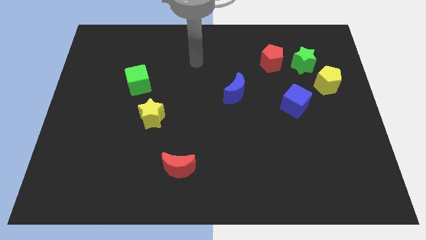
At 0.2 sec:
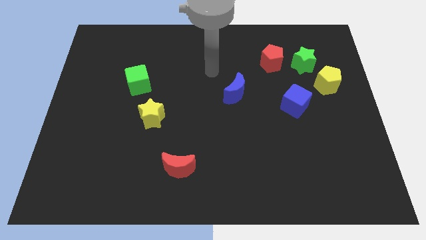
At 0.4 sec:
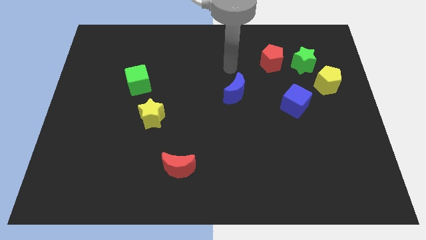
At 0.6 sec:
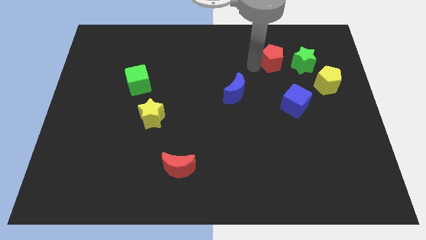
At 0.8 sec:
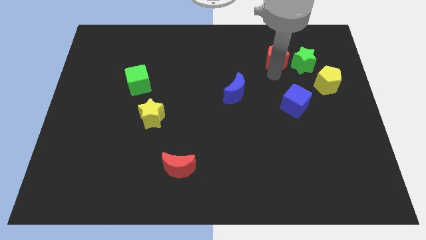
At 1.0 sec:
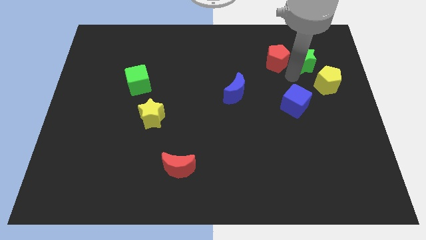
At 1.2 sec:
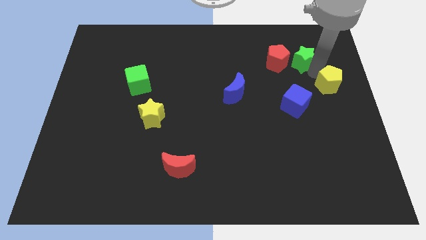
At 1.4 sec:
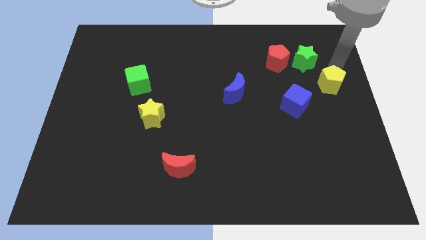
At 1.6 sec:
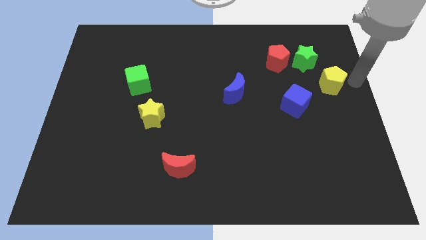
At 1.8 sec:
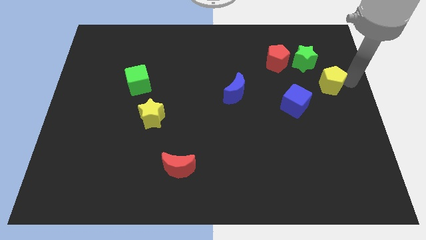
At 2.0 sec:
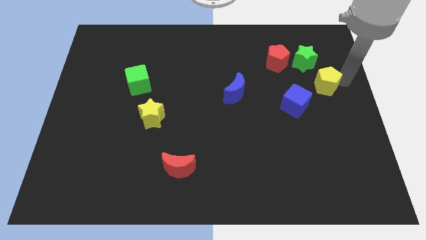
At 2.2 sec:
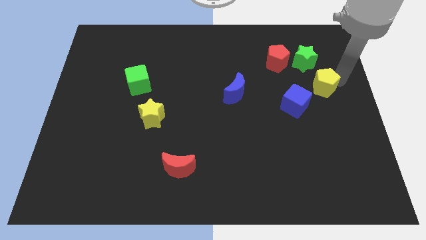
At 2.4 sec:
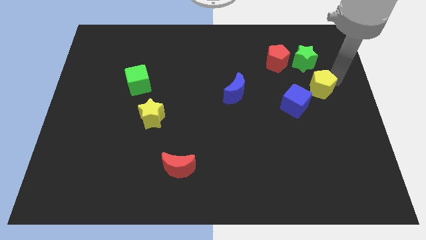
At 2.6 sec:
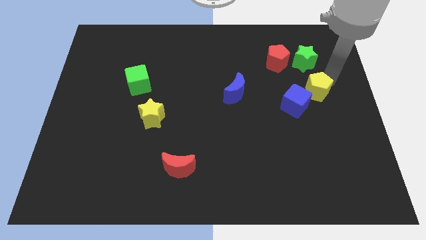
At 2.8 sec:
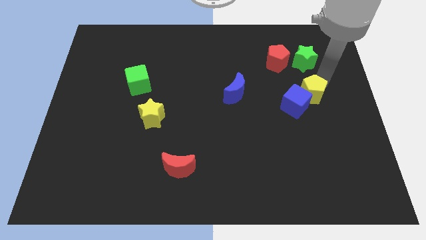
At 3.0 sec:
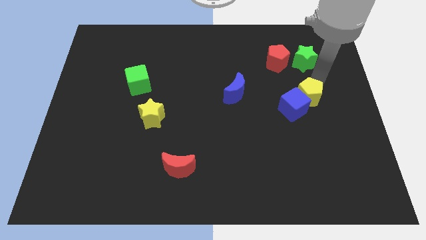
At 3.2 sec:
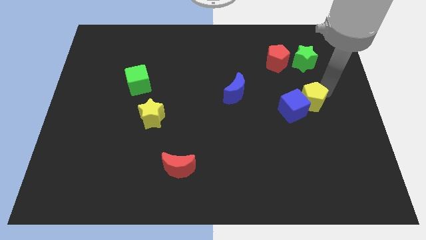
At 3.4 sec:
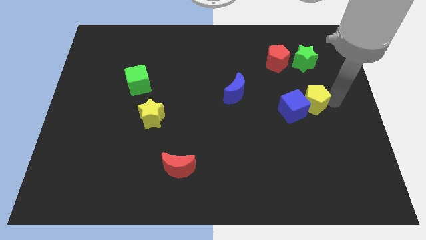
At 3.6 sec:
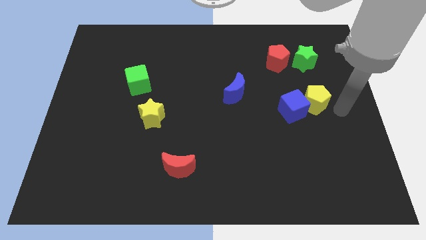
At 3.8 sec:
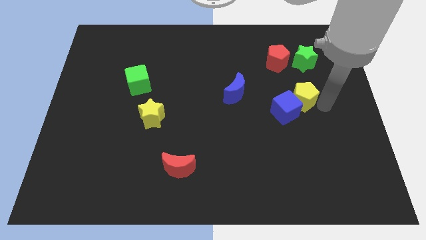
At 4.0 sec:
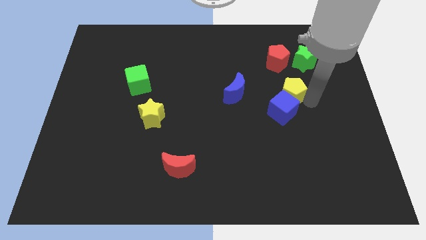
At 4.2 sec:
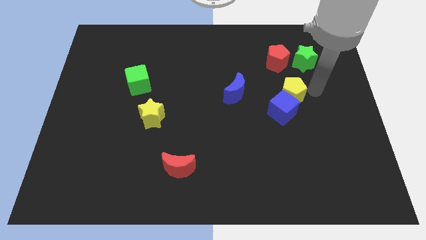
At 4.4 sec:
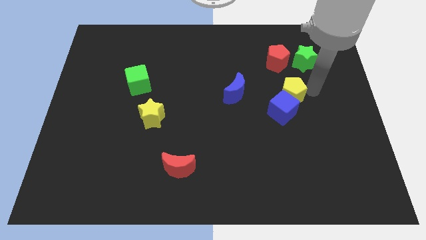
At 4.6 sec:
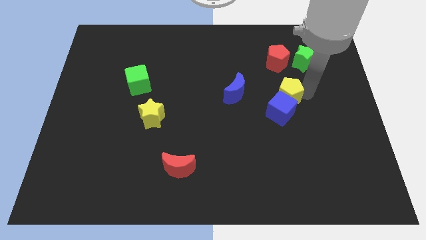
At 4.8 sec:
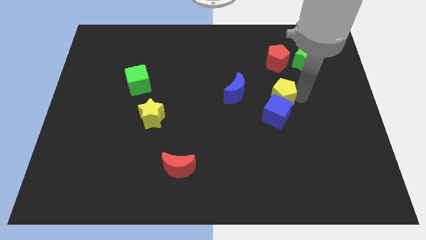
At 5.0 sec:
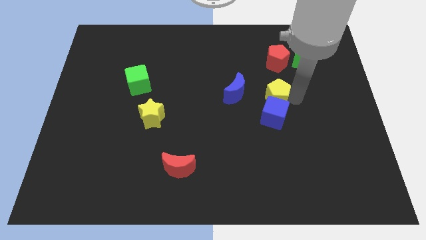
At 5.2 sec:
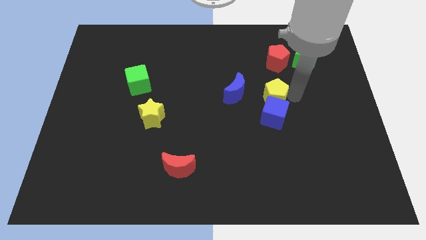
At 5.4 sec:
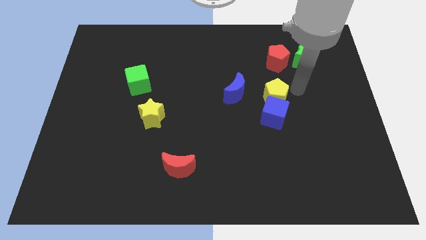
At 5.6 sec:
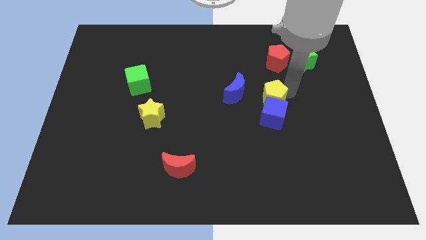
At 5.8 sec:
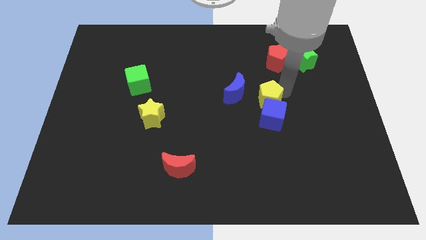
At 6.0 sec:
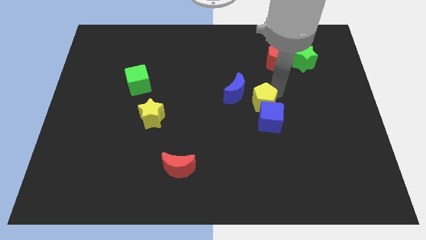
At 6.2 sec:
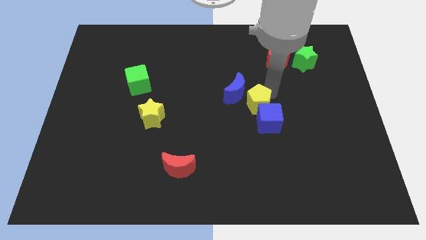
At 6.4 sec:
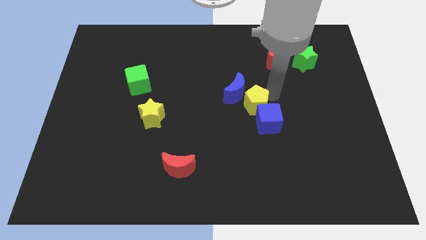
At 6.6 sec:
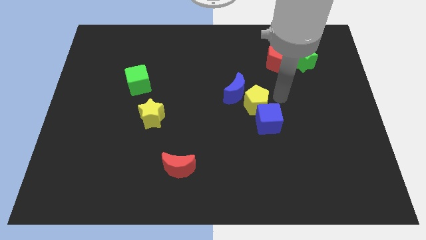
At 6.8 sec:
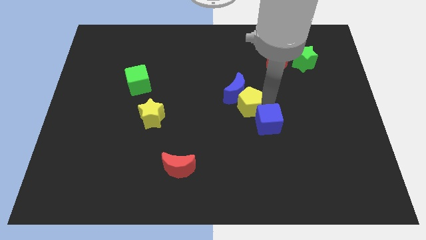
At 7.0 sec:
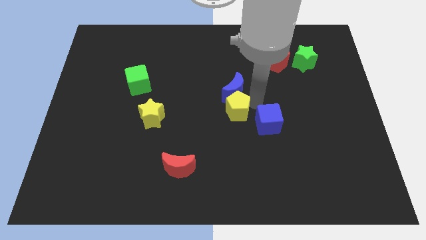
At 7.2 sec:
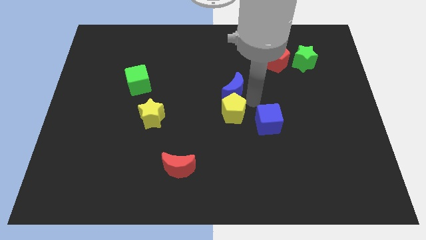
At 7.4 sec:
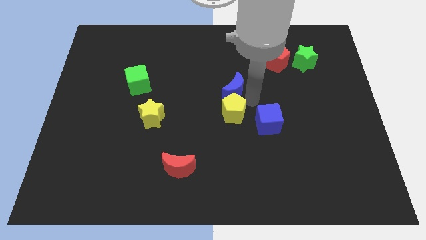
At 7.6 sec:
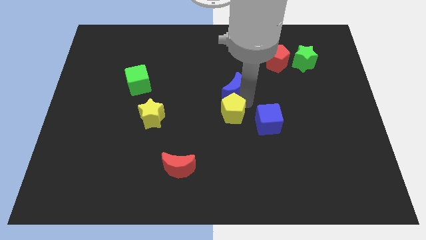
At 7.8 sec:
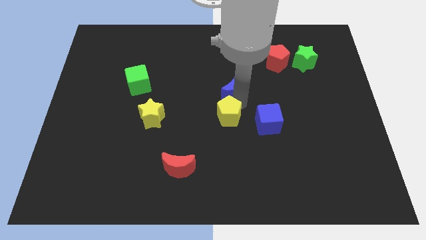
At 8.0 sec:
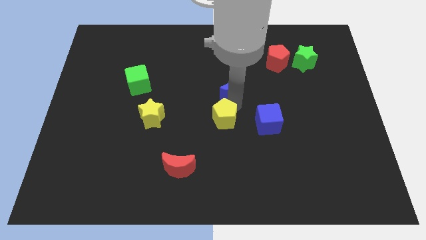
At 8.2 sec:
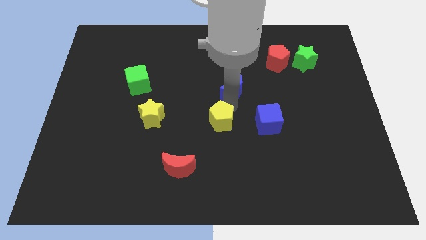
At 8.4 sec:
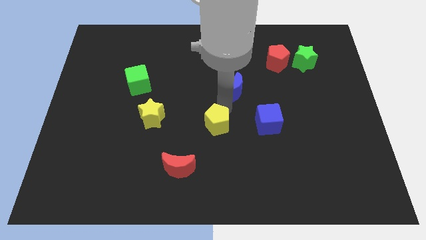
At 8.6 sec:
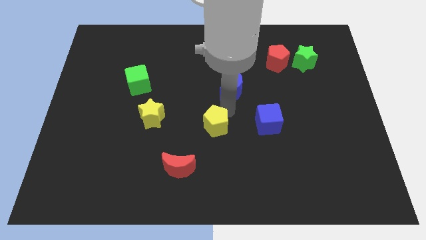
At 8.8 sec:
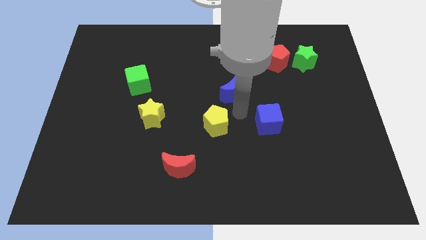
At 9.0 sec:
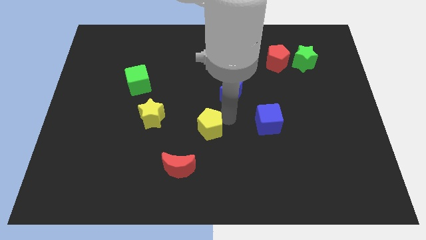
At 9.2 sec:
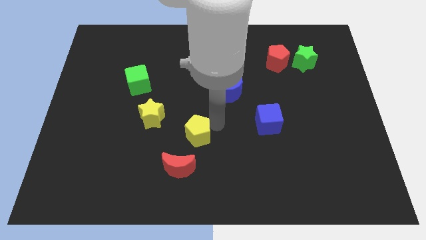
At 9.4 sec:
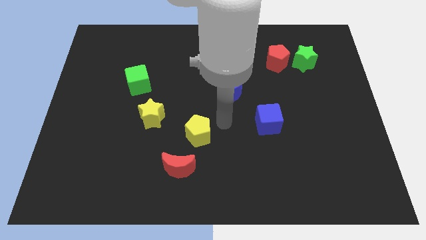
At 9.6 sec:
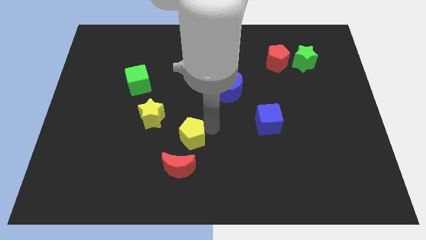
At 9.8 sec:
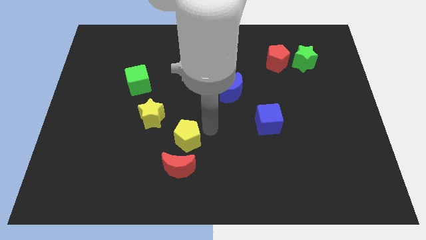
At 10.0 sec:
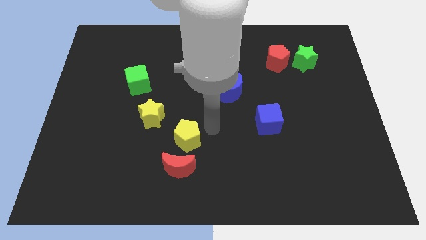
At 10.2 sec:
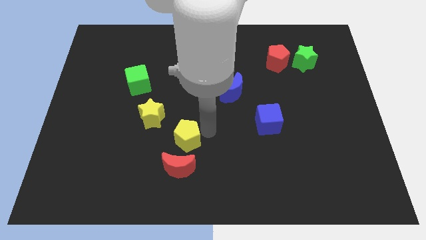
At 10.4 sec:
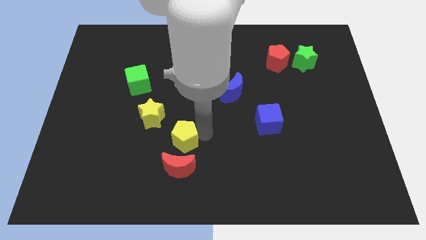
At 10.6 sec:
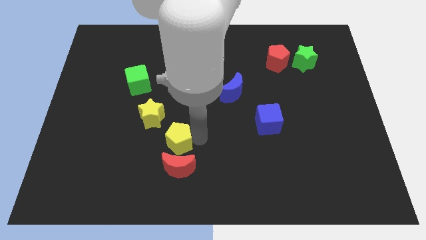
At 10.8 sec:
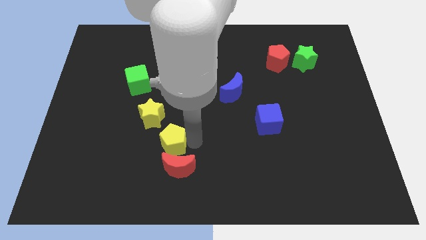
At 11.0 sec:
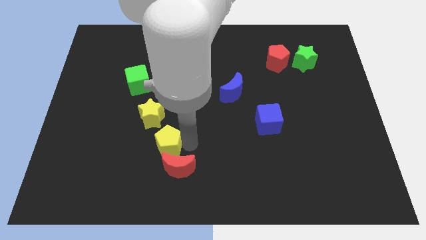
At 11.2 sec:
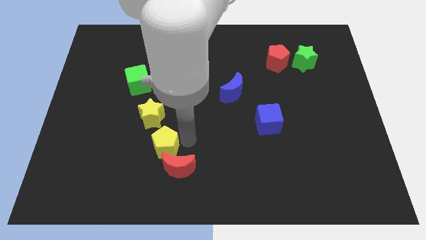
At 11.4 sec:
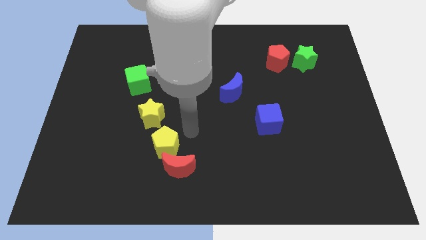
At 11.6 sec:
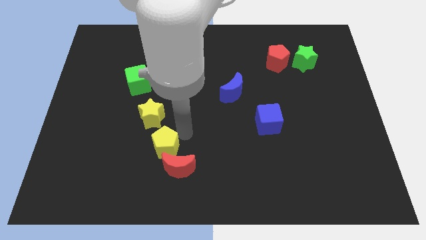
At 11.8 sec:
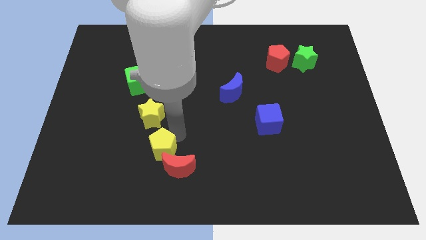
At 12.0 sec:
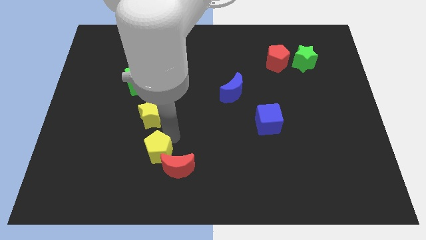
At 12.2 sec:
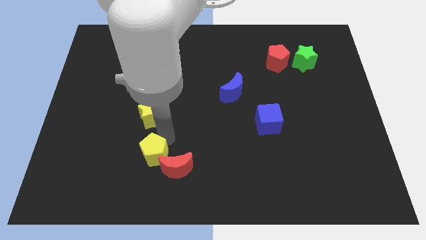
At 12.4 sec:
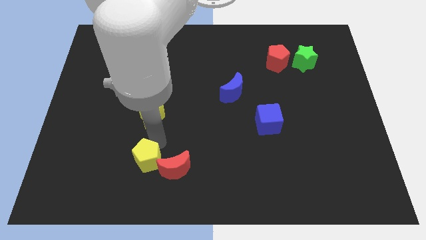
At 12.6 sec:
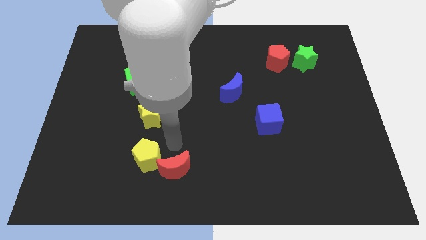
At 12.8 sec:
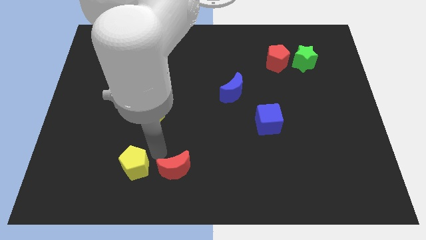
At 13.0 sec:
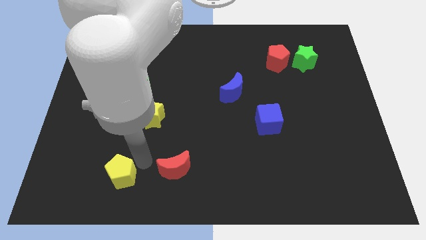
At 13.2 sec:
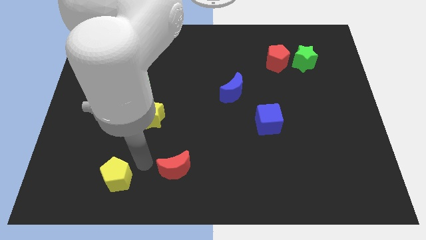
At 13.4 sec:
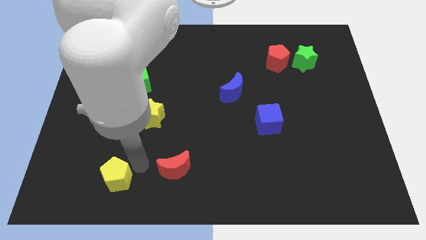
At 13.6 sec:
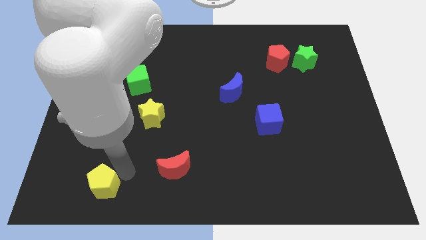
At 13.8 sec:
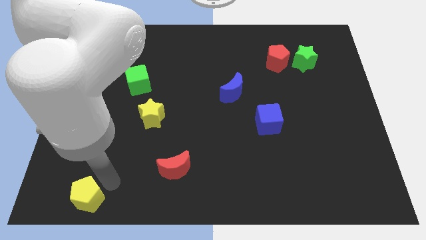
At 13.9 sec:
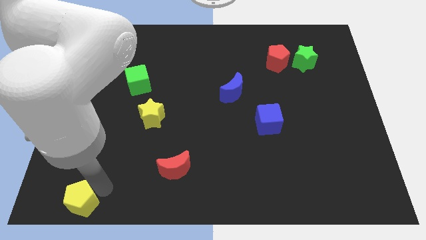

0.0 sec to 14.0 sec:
slide the yellow pentagon to the lower left corner
